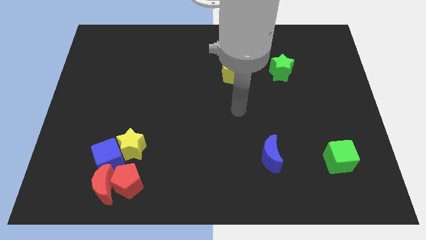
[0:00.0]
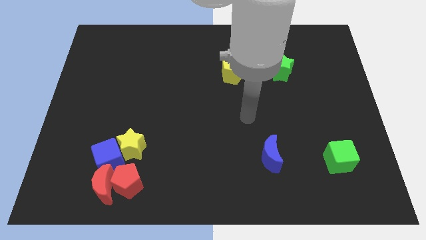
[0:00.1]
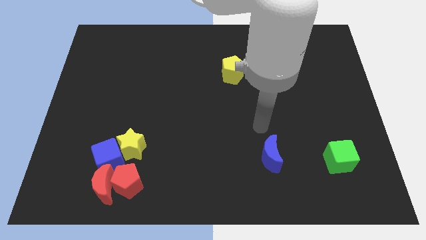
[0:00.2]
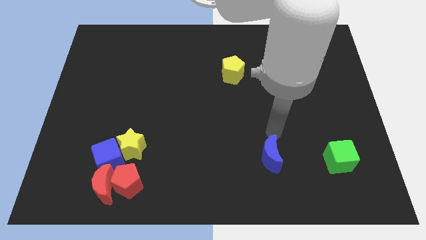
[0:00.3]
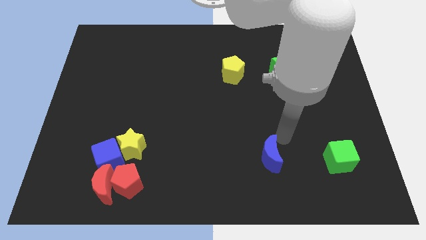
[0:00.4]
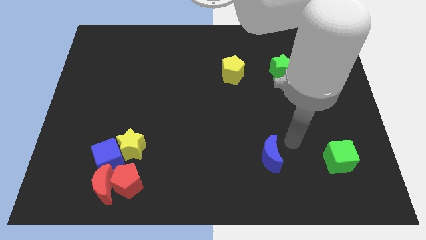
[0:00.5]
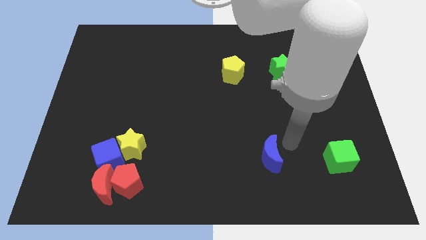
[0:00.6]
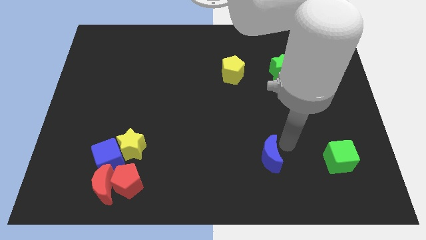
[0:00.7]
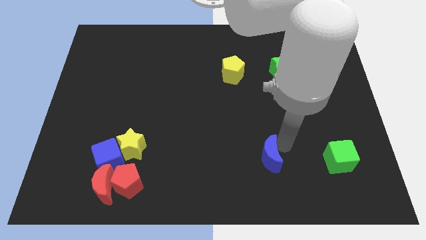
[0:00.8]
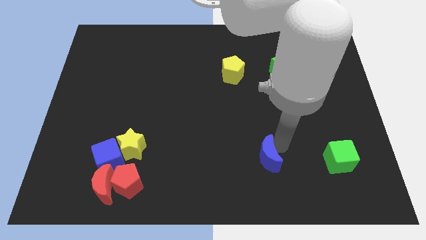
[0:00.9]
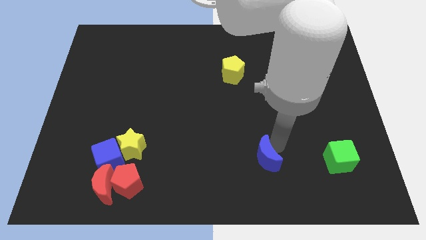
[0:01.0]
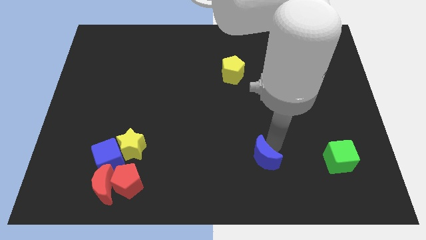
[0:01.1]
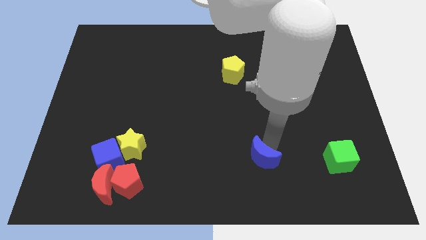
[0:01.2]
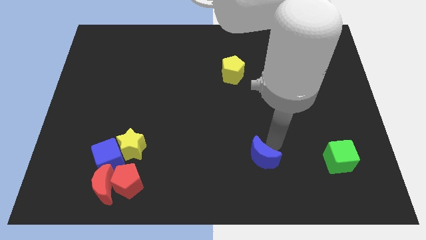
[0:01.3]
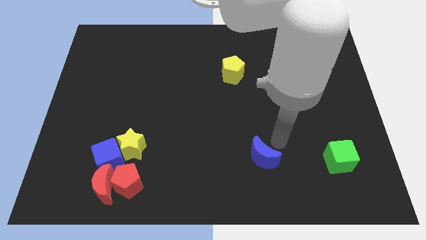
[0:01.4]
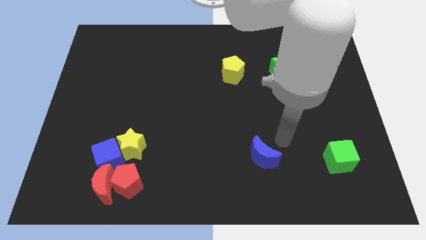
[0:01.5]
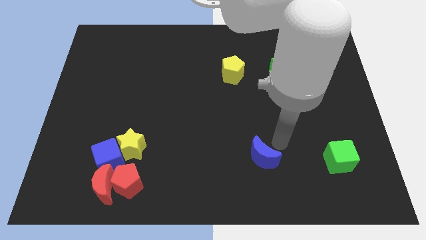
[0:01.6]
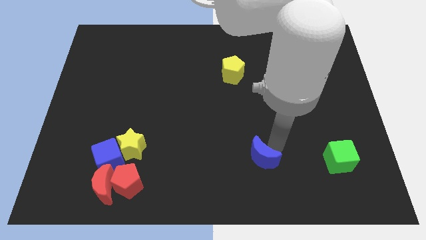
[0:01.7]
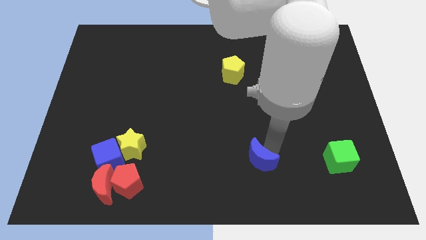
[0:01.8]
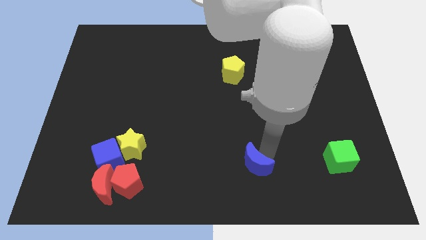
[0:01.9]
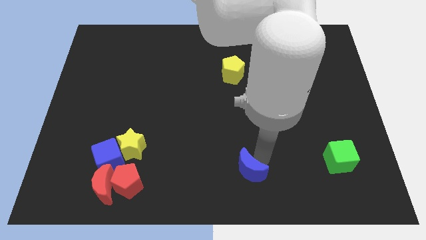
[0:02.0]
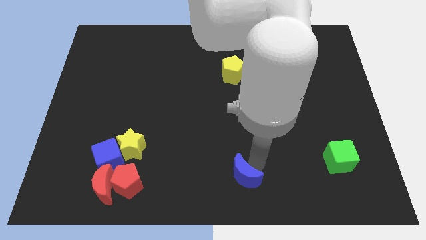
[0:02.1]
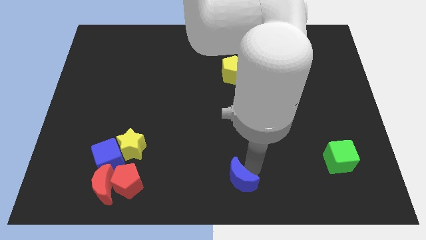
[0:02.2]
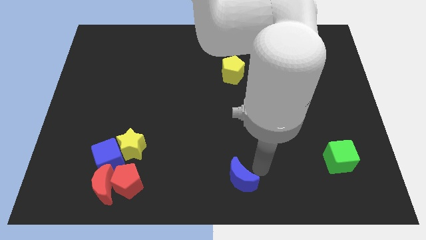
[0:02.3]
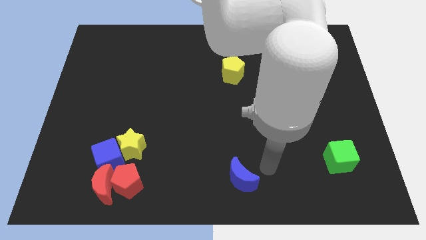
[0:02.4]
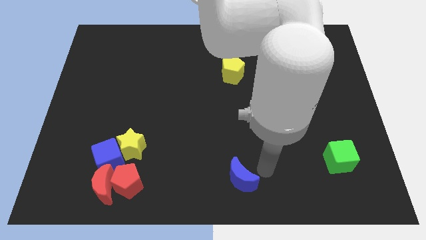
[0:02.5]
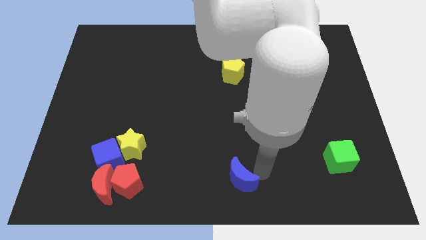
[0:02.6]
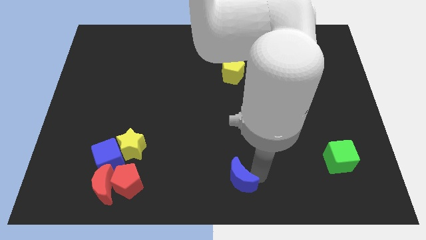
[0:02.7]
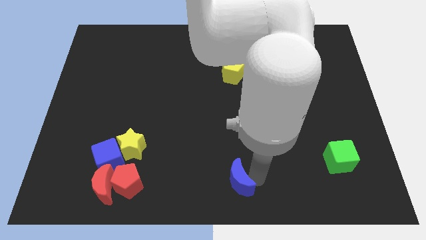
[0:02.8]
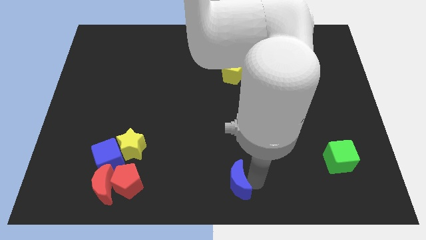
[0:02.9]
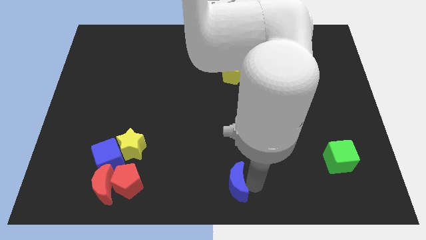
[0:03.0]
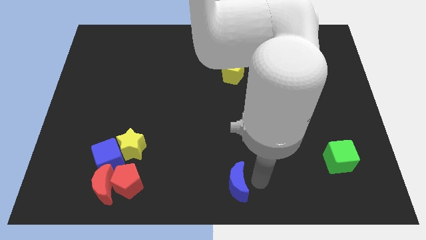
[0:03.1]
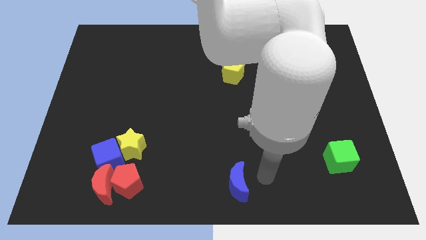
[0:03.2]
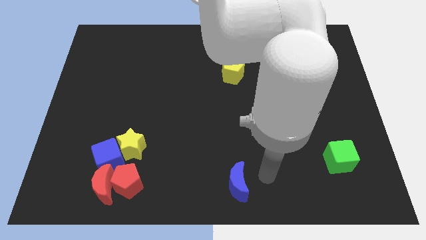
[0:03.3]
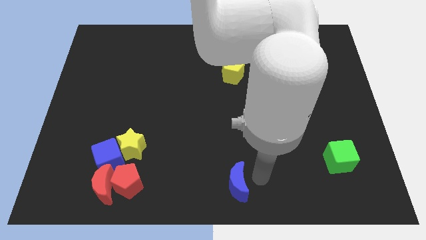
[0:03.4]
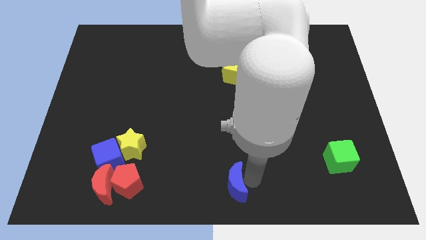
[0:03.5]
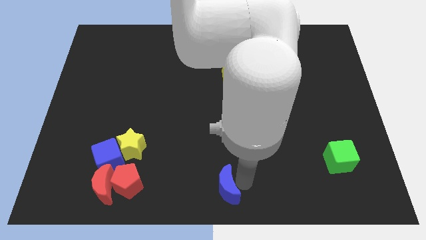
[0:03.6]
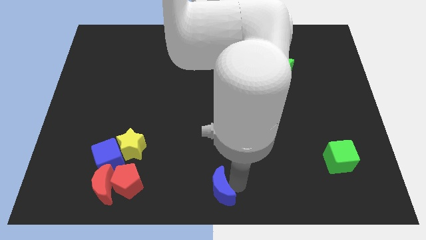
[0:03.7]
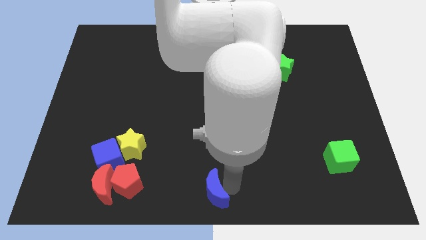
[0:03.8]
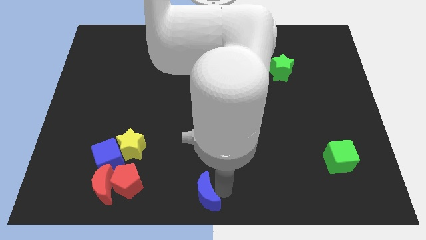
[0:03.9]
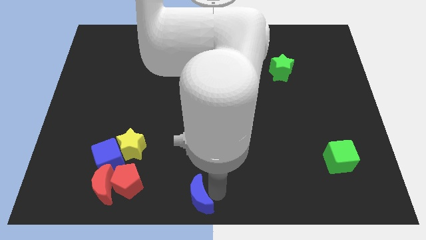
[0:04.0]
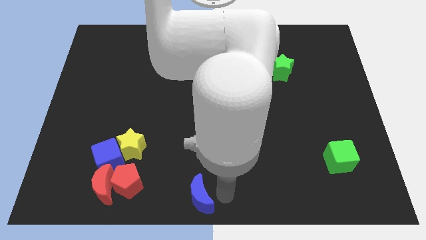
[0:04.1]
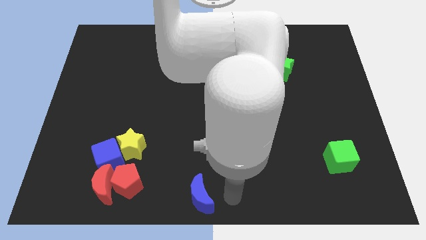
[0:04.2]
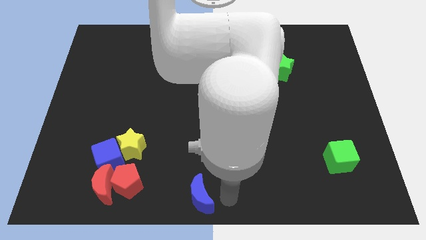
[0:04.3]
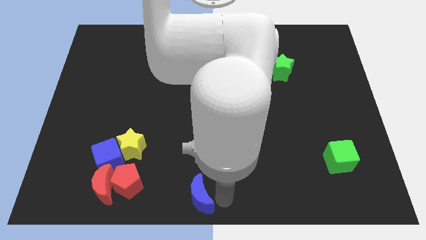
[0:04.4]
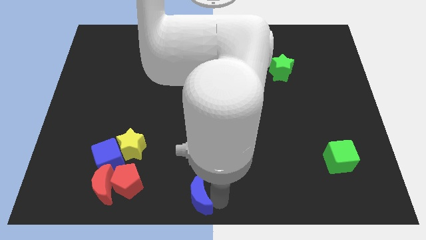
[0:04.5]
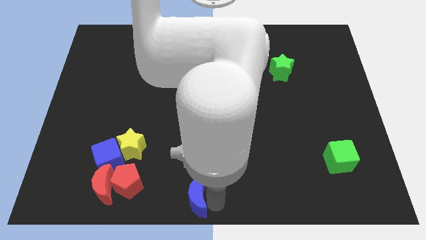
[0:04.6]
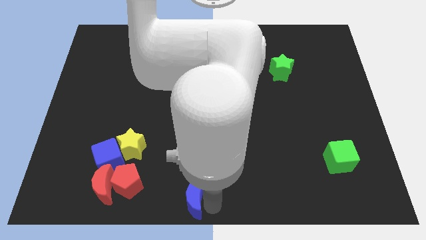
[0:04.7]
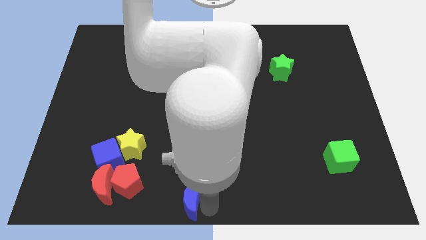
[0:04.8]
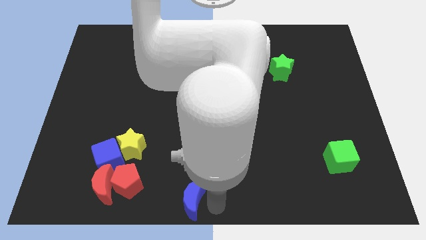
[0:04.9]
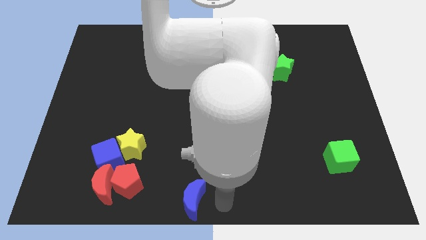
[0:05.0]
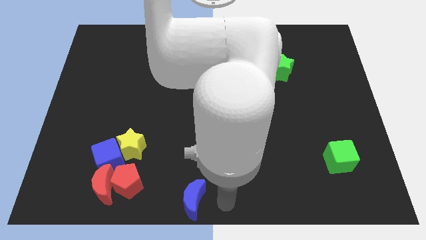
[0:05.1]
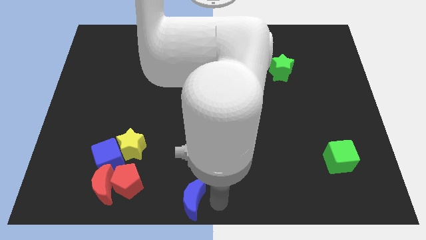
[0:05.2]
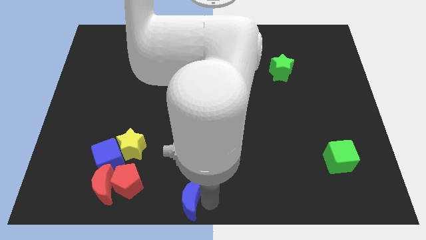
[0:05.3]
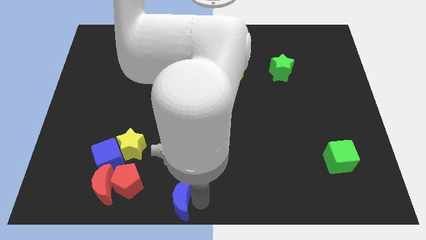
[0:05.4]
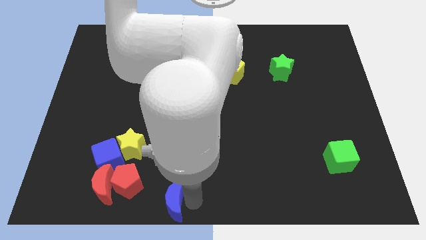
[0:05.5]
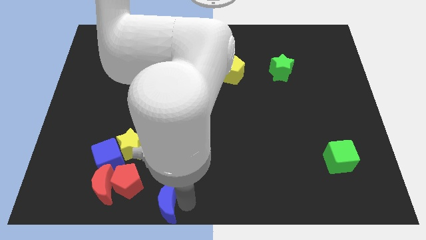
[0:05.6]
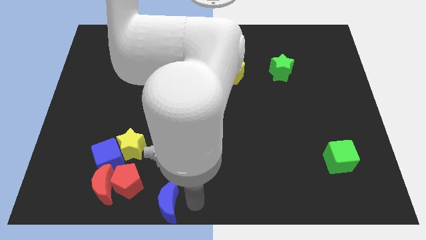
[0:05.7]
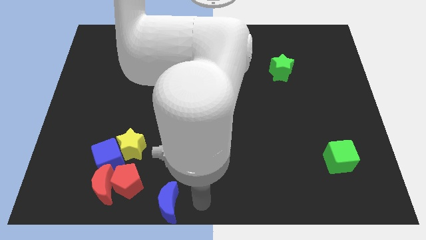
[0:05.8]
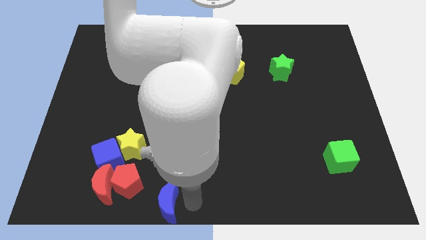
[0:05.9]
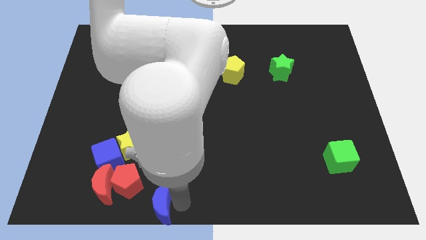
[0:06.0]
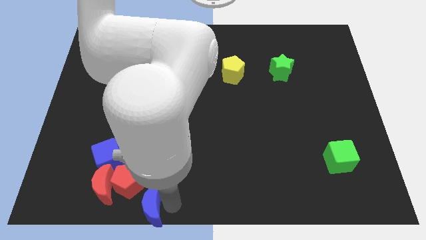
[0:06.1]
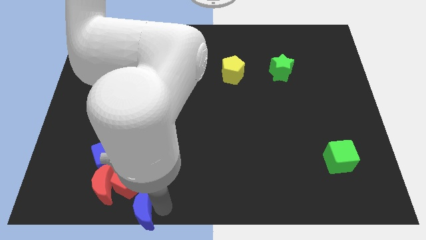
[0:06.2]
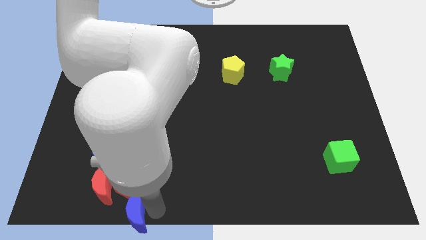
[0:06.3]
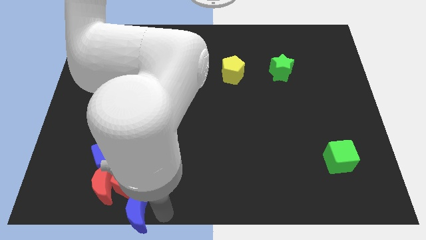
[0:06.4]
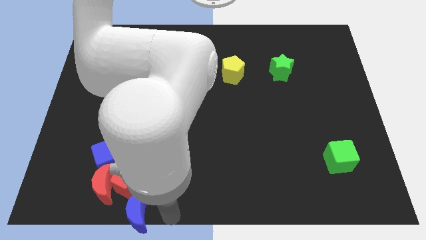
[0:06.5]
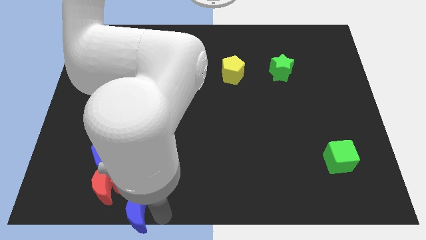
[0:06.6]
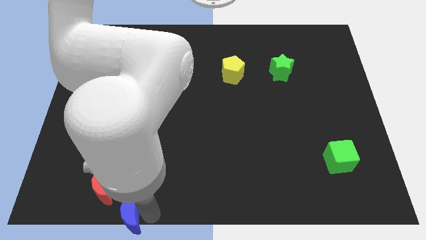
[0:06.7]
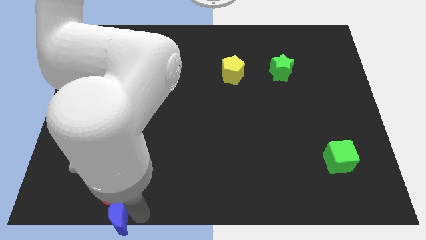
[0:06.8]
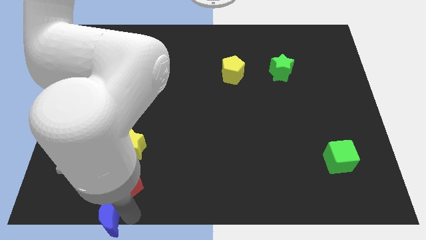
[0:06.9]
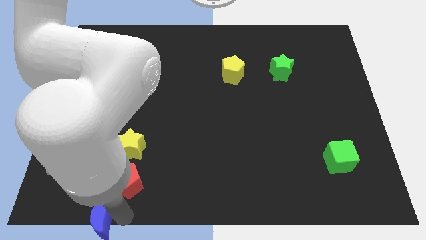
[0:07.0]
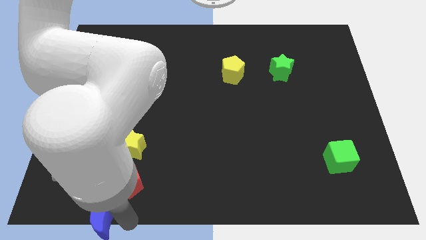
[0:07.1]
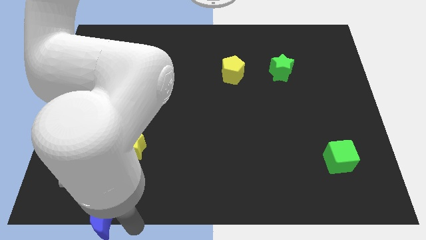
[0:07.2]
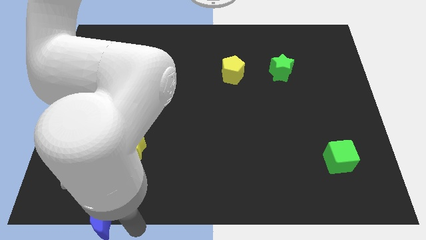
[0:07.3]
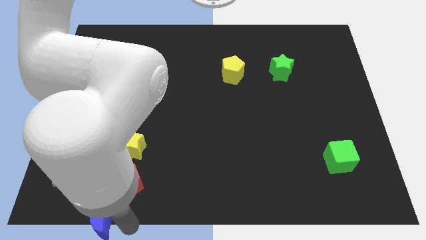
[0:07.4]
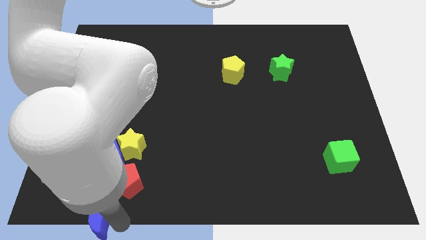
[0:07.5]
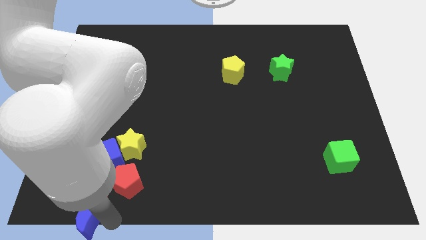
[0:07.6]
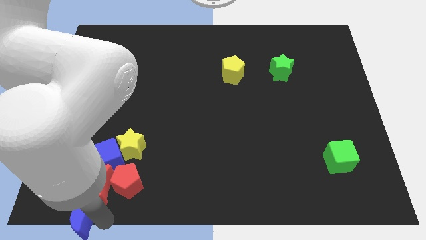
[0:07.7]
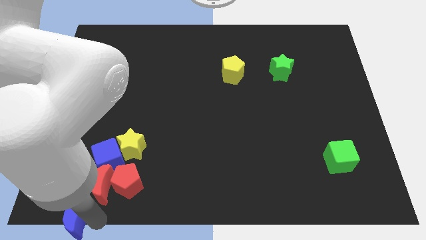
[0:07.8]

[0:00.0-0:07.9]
slide the blue moon to the lower left corner
